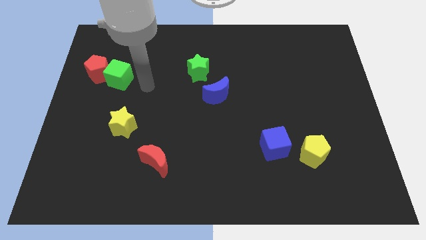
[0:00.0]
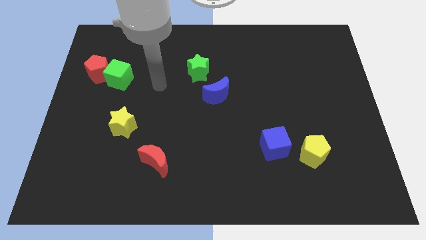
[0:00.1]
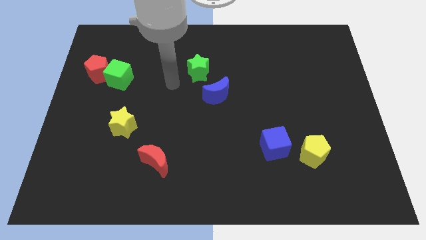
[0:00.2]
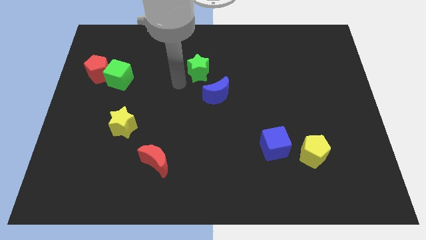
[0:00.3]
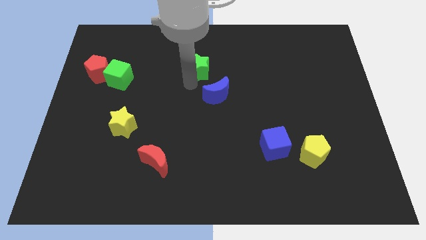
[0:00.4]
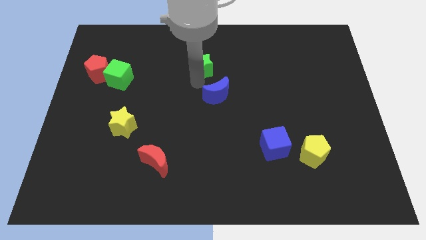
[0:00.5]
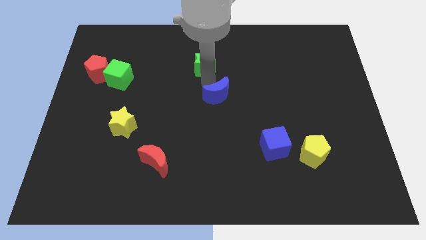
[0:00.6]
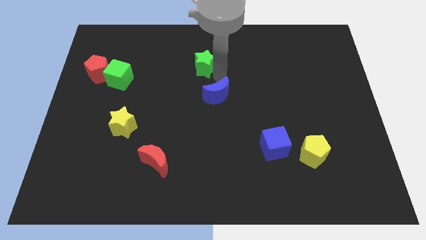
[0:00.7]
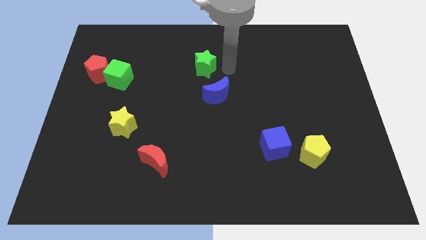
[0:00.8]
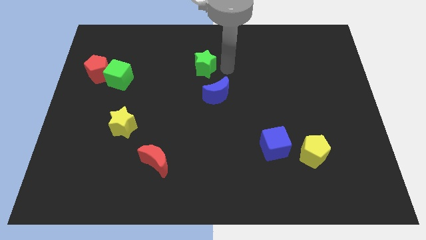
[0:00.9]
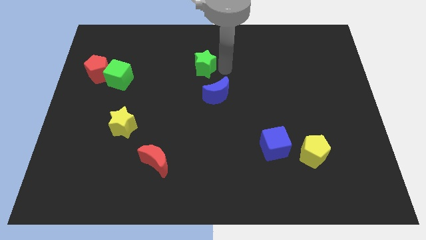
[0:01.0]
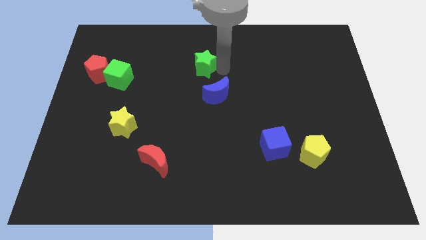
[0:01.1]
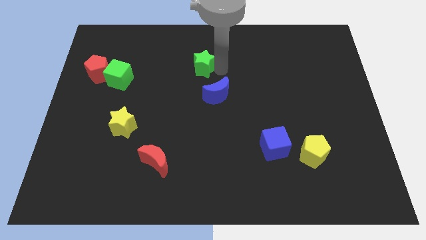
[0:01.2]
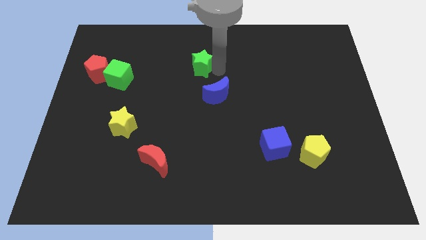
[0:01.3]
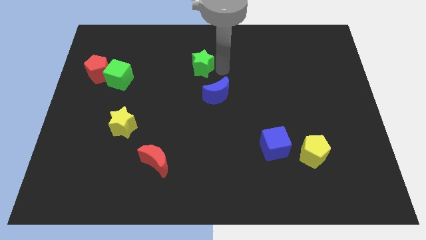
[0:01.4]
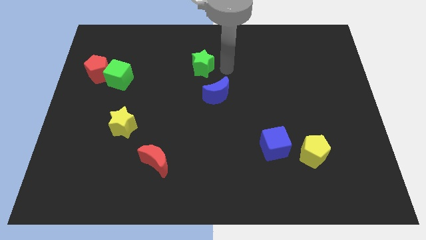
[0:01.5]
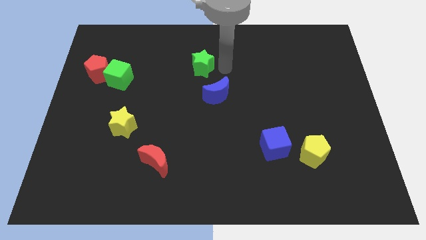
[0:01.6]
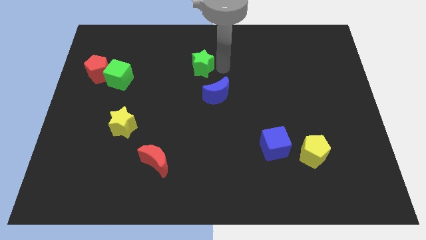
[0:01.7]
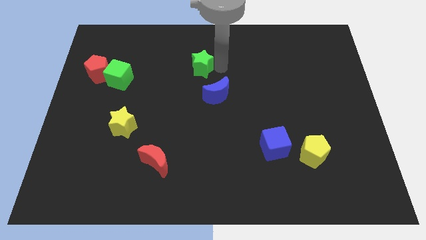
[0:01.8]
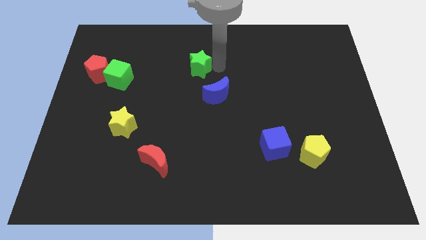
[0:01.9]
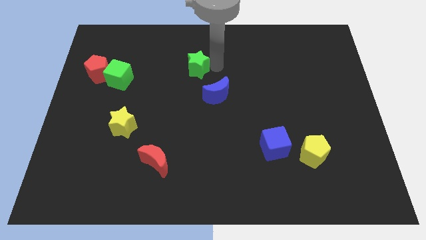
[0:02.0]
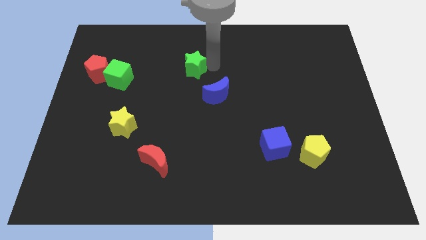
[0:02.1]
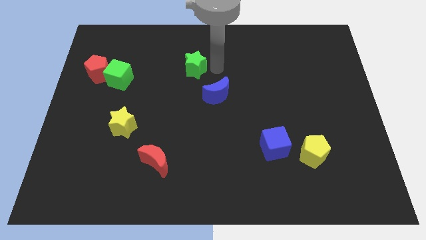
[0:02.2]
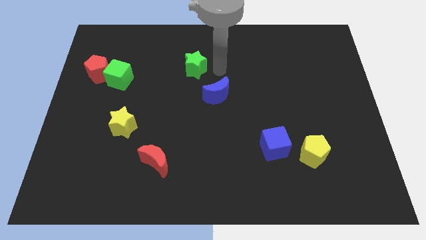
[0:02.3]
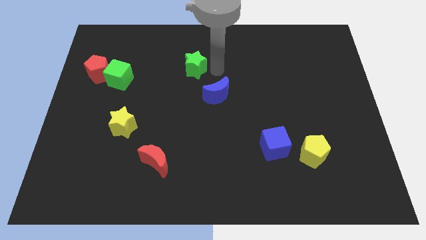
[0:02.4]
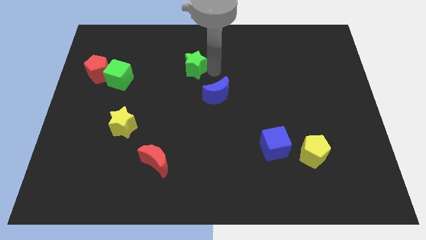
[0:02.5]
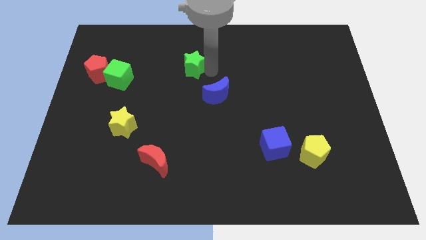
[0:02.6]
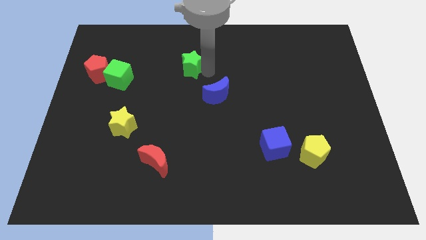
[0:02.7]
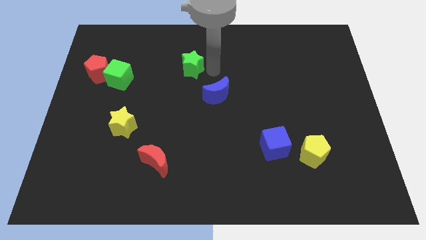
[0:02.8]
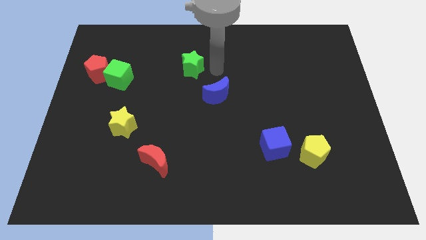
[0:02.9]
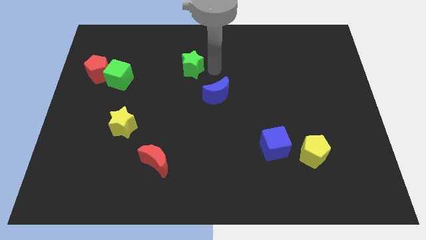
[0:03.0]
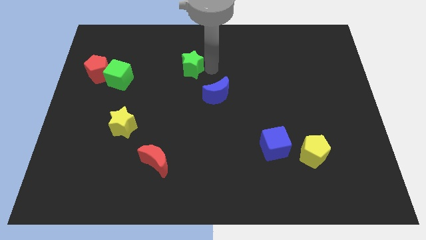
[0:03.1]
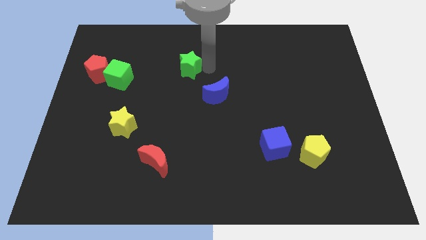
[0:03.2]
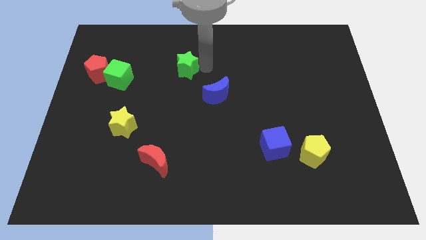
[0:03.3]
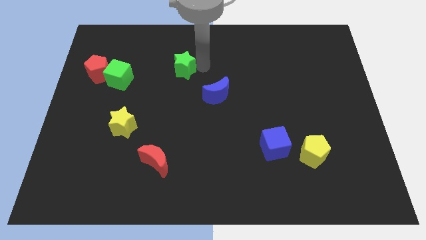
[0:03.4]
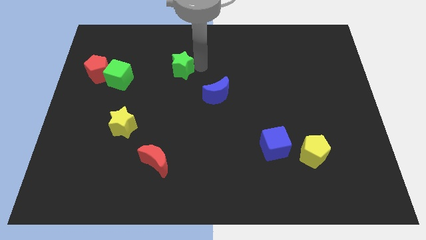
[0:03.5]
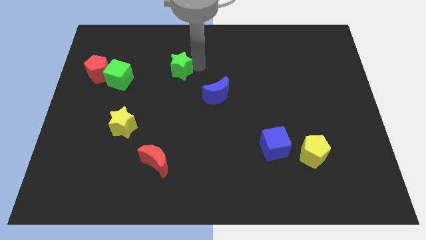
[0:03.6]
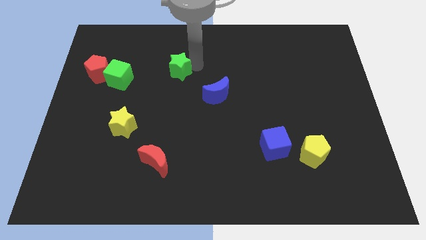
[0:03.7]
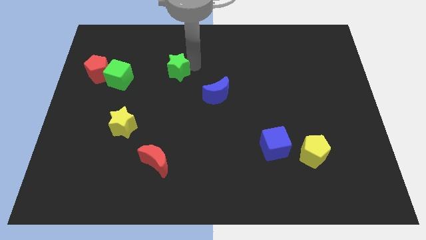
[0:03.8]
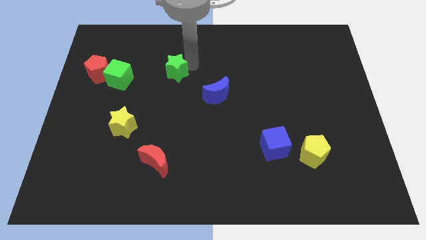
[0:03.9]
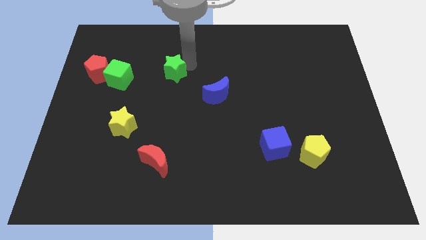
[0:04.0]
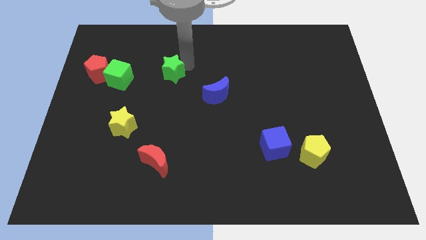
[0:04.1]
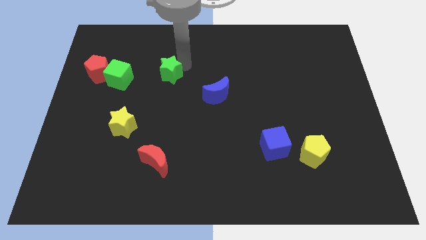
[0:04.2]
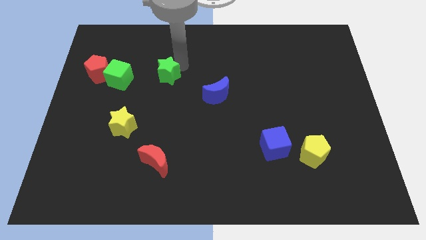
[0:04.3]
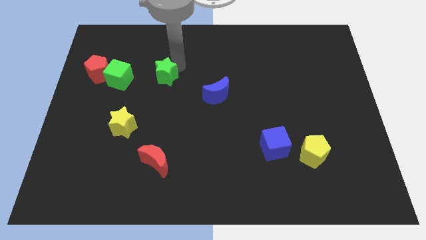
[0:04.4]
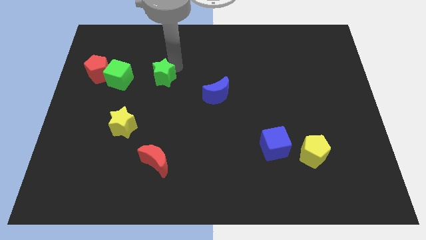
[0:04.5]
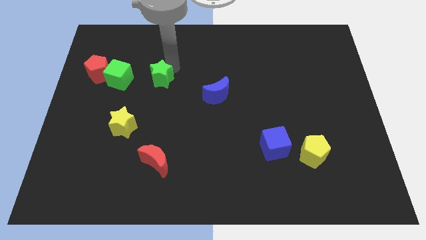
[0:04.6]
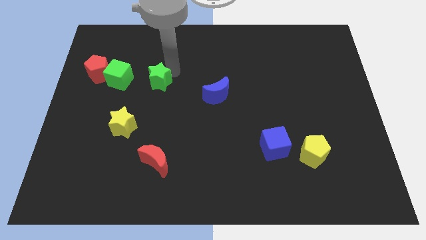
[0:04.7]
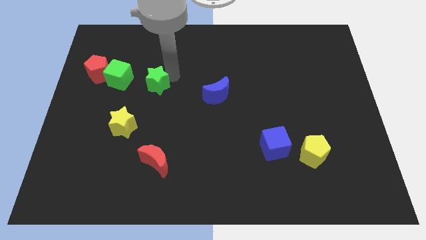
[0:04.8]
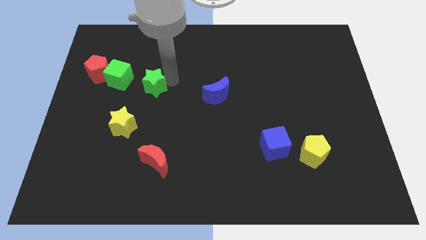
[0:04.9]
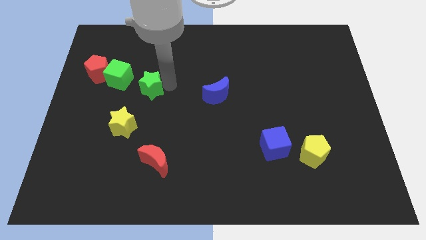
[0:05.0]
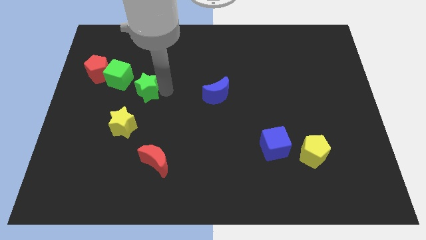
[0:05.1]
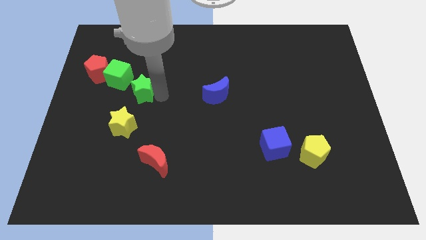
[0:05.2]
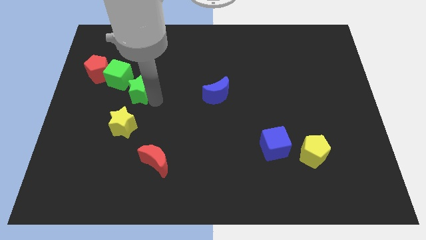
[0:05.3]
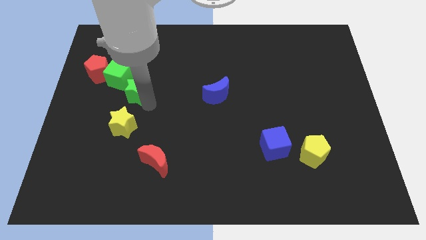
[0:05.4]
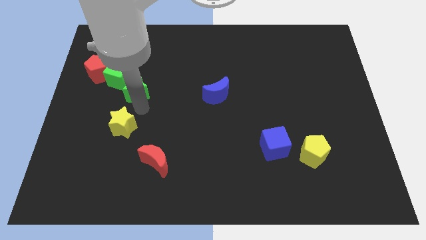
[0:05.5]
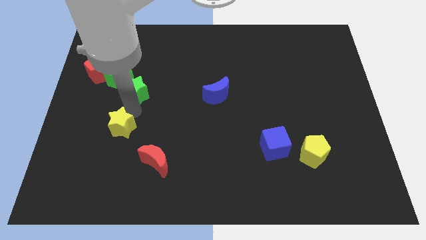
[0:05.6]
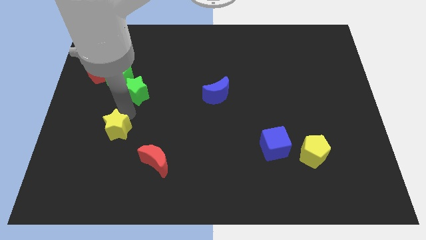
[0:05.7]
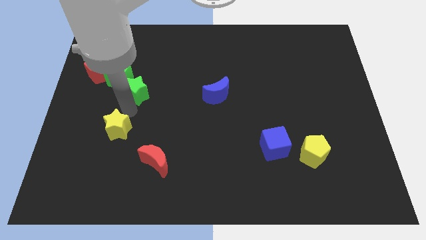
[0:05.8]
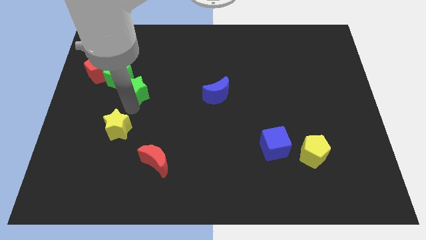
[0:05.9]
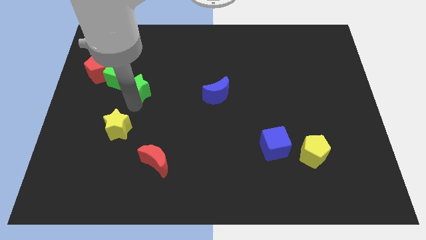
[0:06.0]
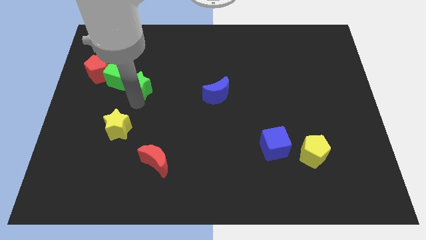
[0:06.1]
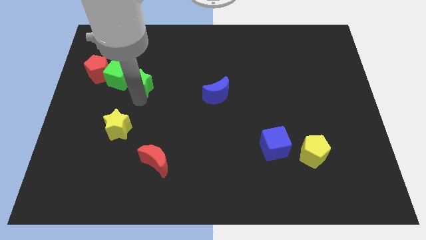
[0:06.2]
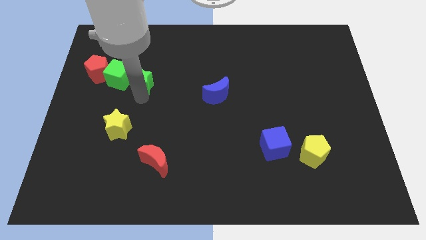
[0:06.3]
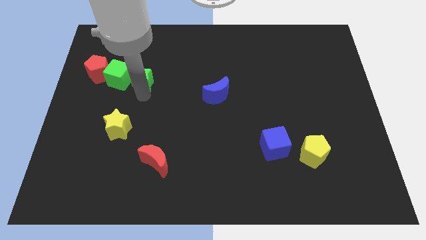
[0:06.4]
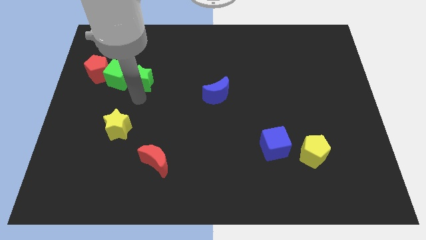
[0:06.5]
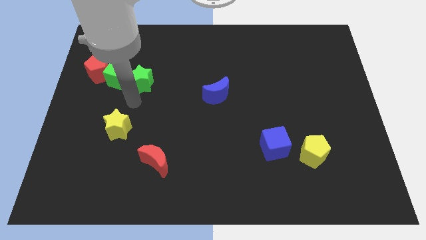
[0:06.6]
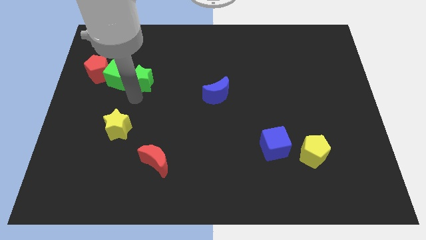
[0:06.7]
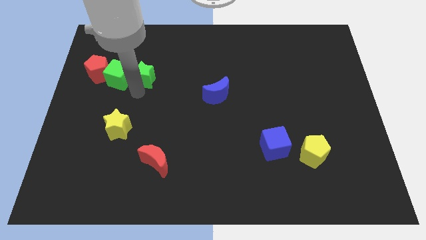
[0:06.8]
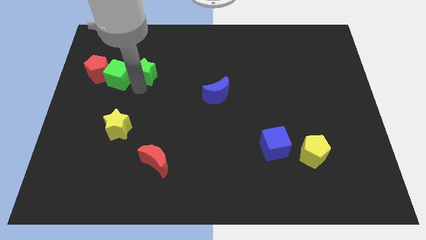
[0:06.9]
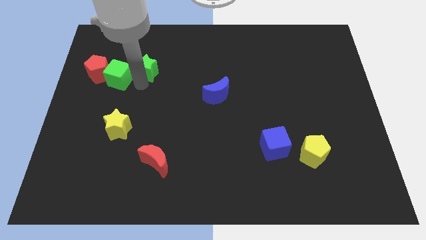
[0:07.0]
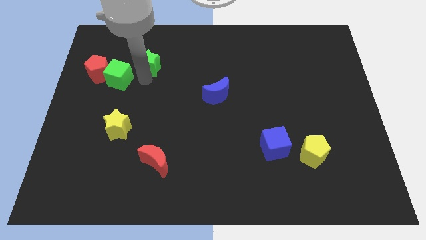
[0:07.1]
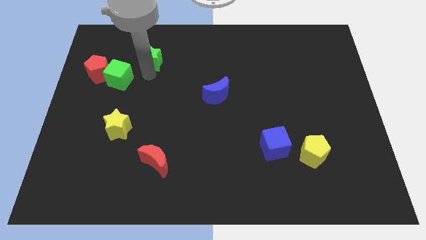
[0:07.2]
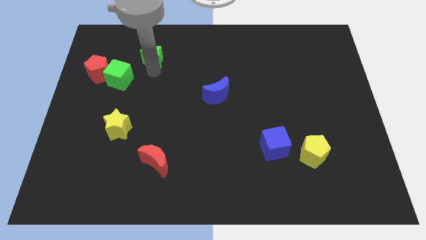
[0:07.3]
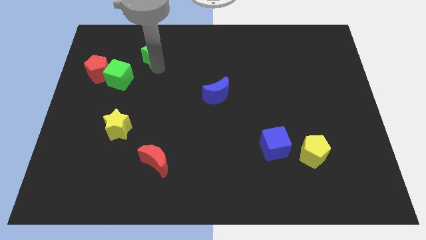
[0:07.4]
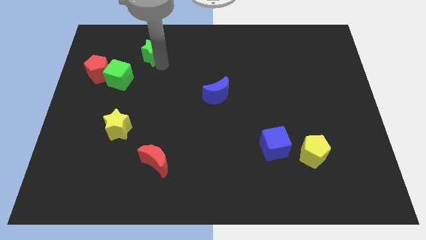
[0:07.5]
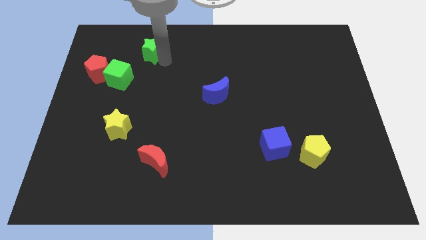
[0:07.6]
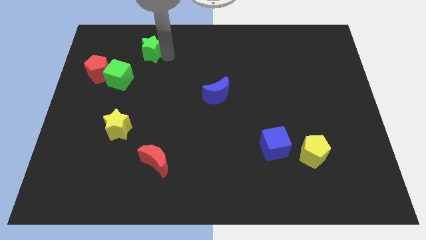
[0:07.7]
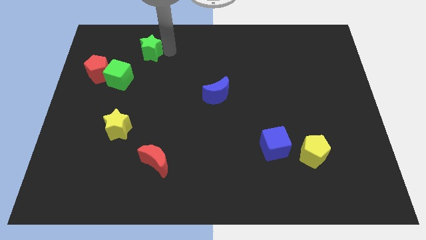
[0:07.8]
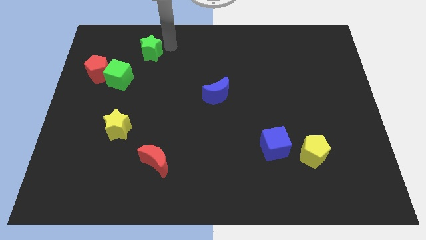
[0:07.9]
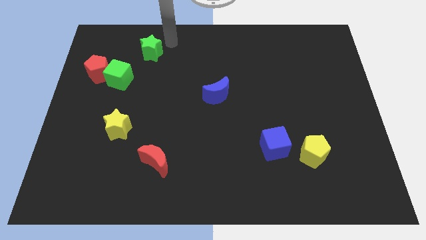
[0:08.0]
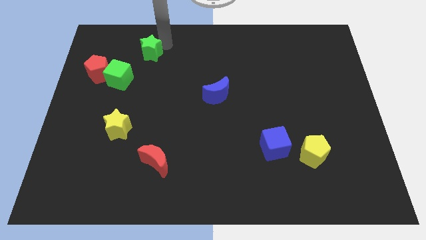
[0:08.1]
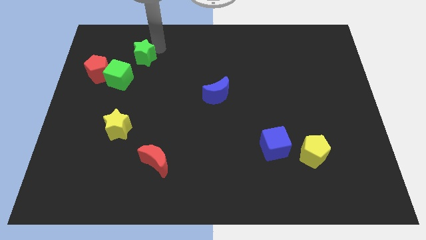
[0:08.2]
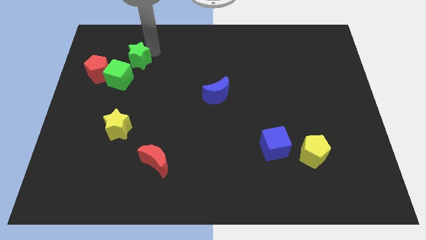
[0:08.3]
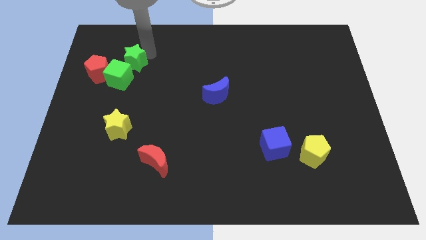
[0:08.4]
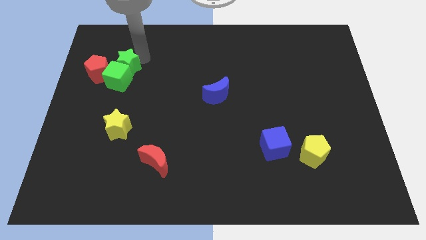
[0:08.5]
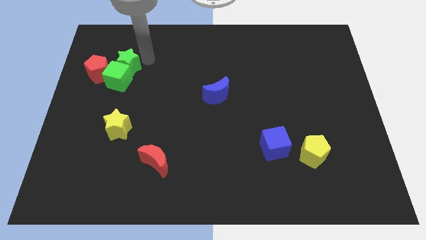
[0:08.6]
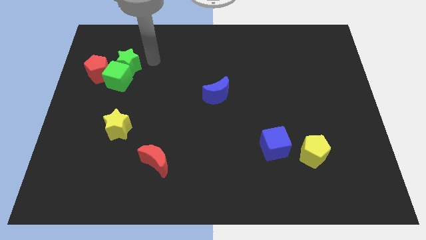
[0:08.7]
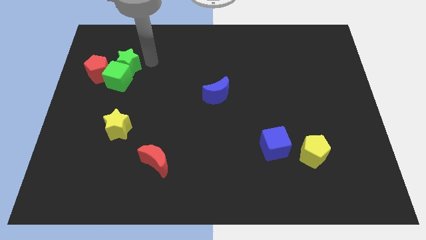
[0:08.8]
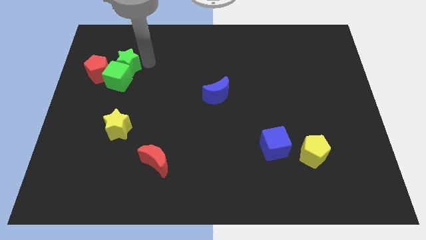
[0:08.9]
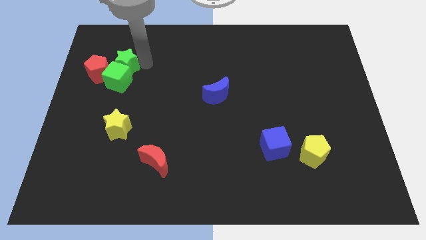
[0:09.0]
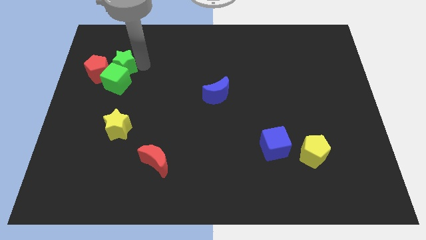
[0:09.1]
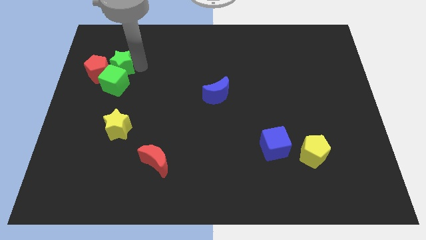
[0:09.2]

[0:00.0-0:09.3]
slide the green star close to the red pentagon
